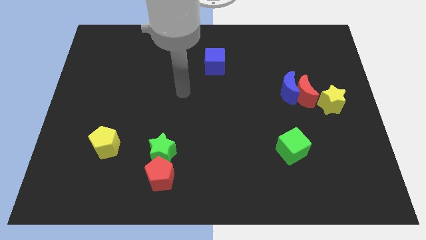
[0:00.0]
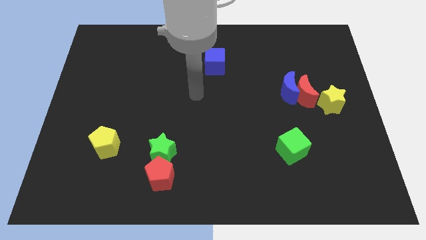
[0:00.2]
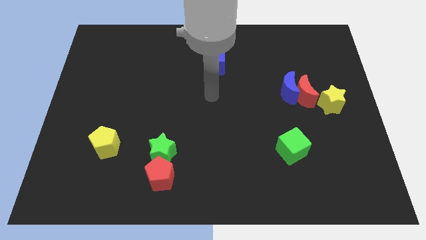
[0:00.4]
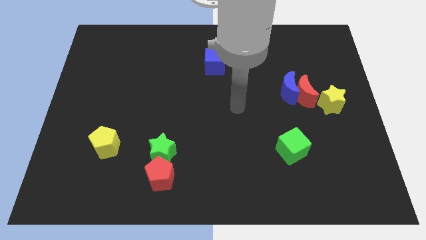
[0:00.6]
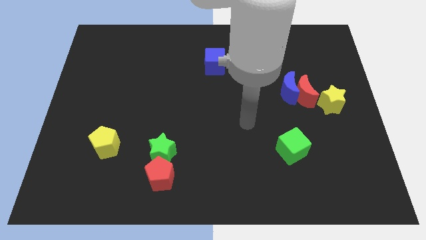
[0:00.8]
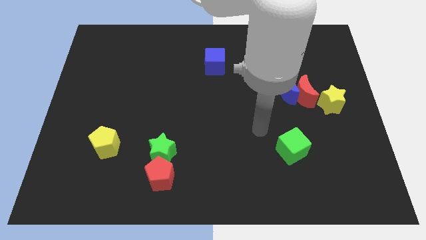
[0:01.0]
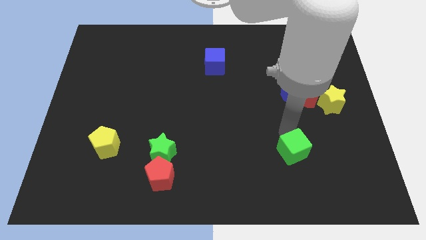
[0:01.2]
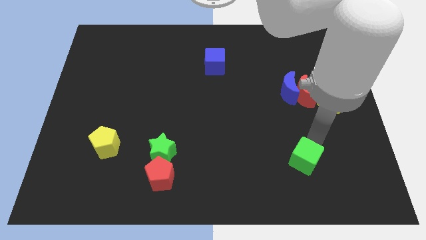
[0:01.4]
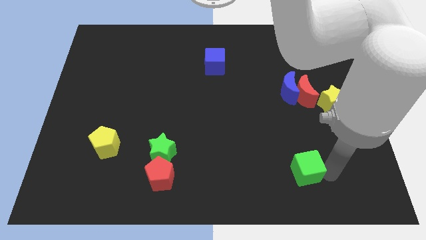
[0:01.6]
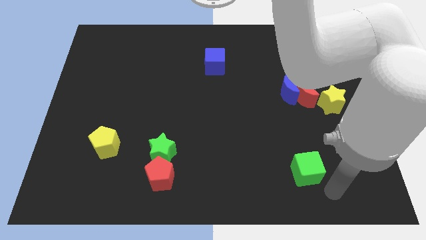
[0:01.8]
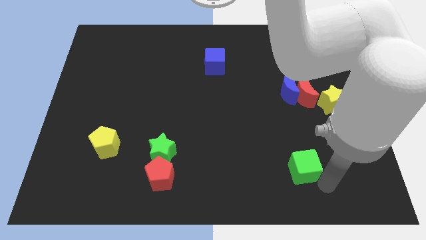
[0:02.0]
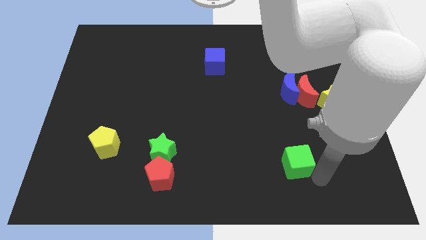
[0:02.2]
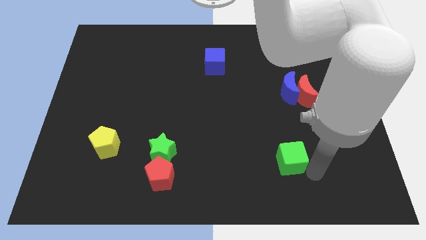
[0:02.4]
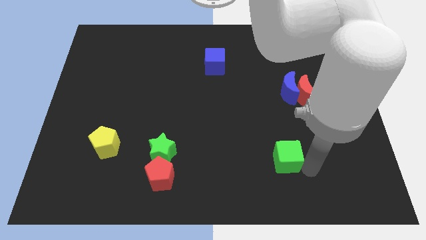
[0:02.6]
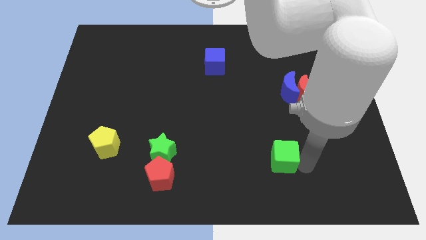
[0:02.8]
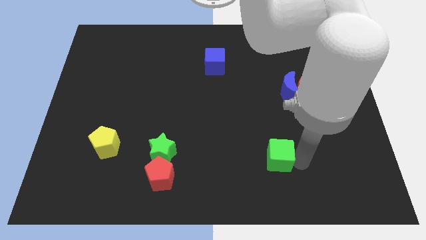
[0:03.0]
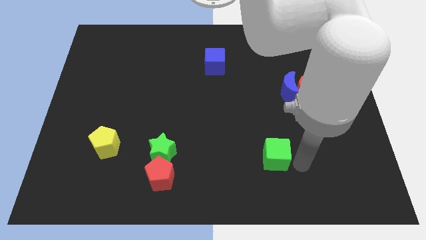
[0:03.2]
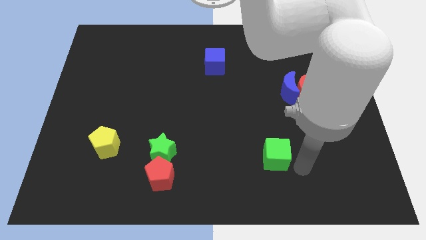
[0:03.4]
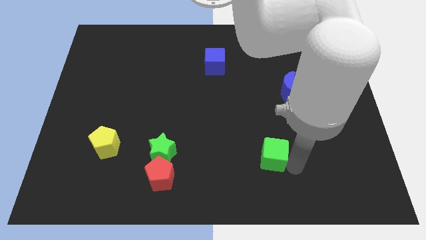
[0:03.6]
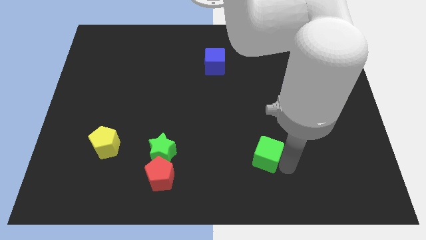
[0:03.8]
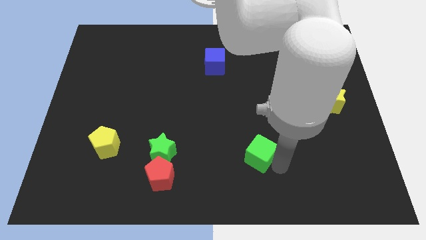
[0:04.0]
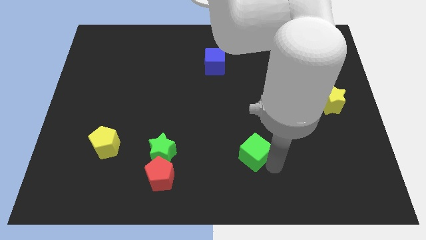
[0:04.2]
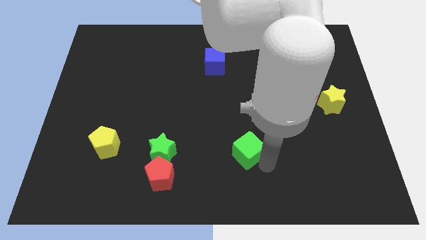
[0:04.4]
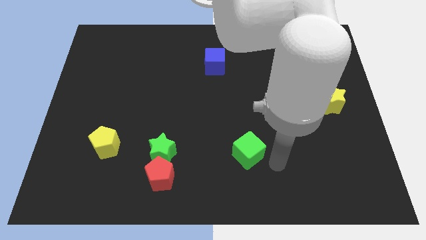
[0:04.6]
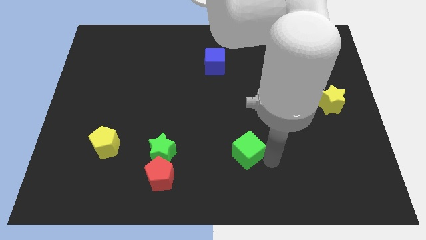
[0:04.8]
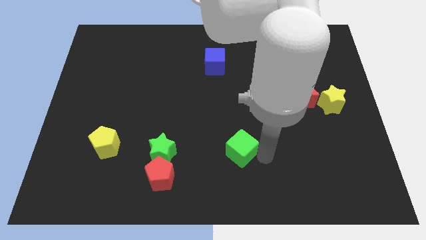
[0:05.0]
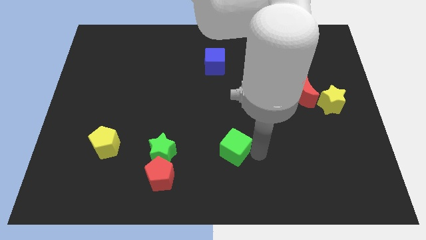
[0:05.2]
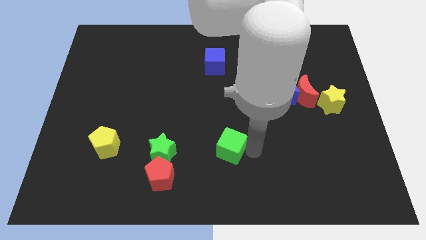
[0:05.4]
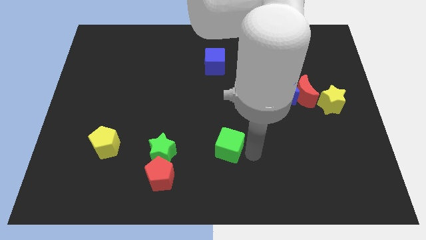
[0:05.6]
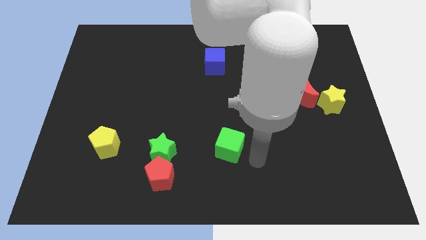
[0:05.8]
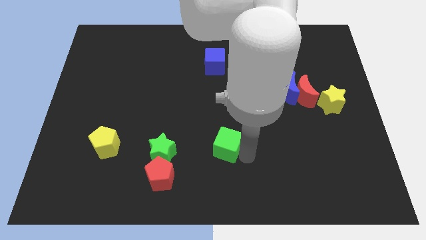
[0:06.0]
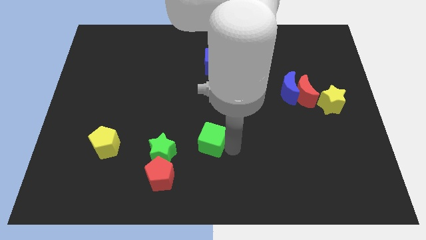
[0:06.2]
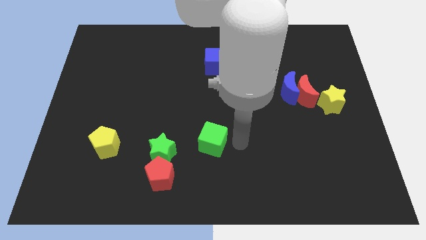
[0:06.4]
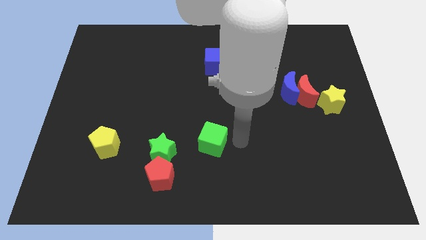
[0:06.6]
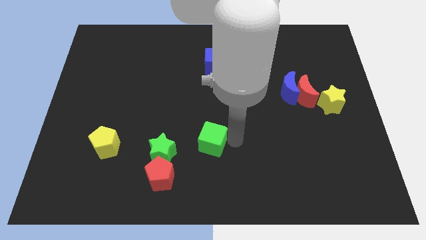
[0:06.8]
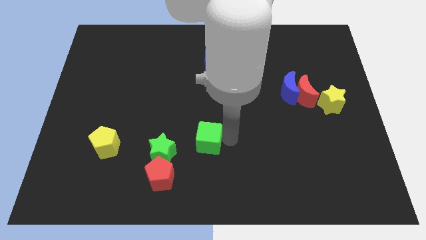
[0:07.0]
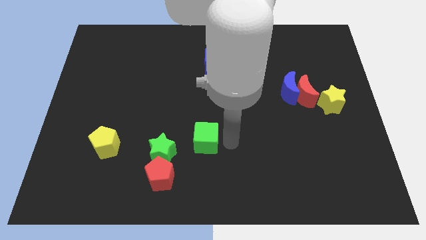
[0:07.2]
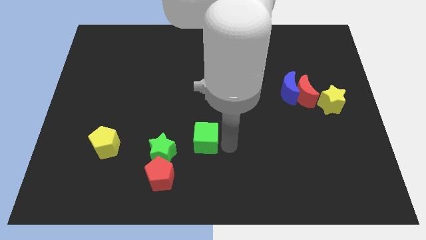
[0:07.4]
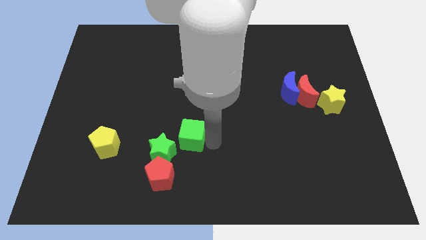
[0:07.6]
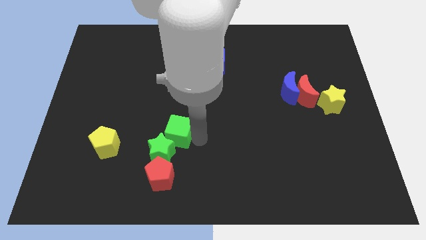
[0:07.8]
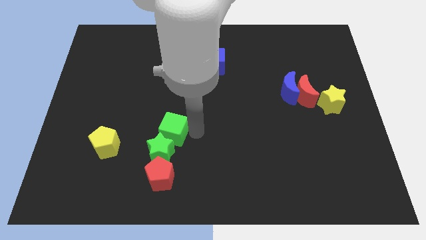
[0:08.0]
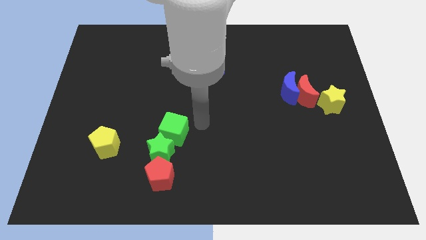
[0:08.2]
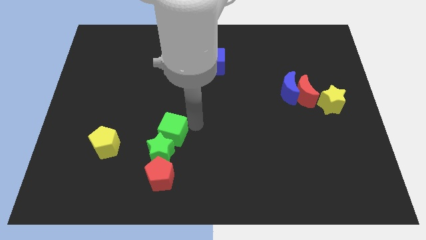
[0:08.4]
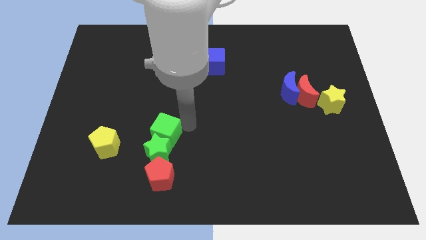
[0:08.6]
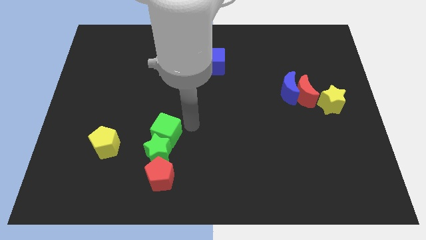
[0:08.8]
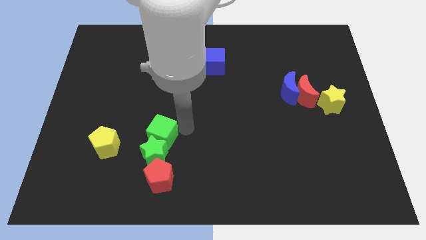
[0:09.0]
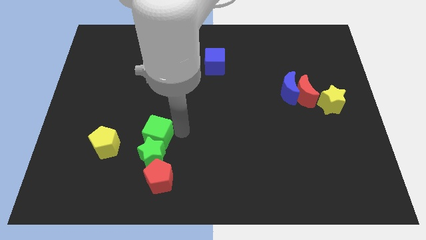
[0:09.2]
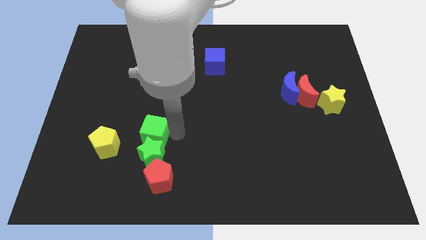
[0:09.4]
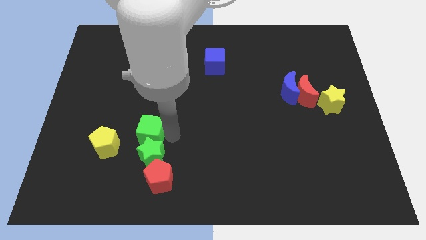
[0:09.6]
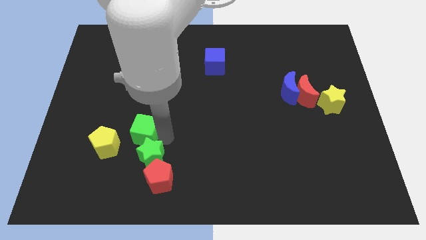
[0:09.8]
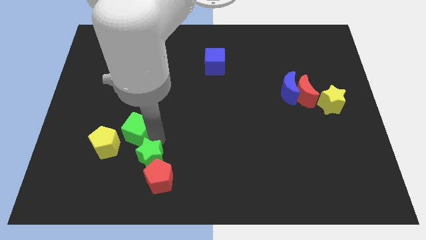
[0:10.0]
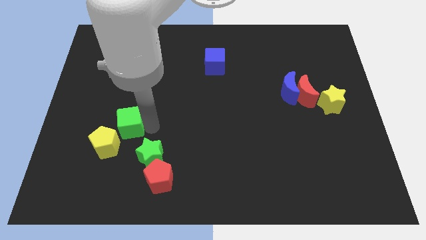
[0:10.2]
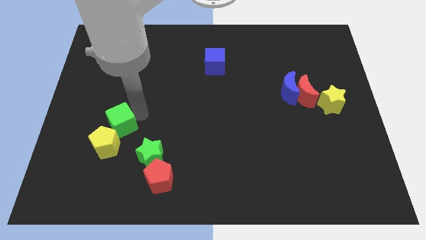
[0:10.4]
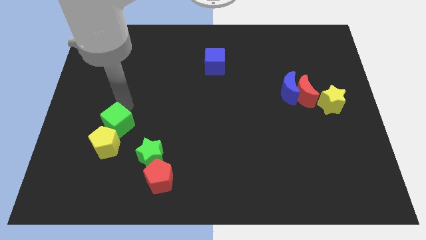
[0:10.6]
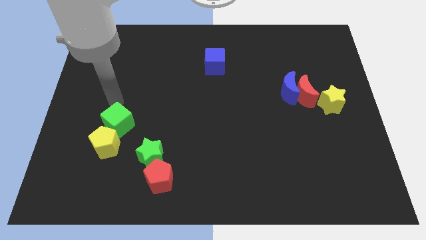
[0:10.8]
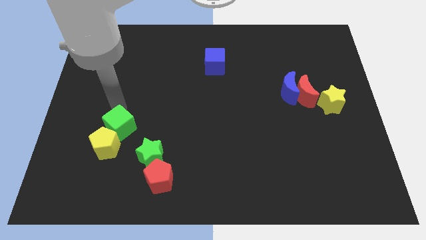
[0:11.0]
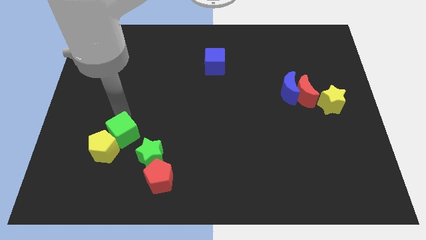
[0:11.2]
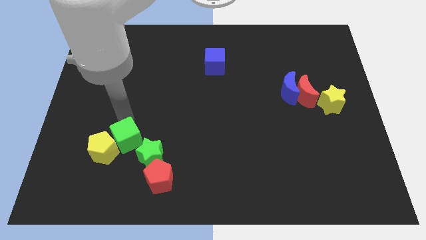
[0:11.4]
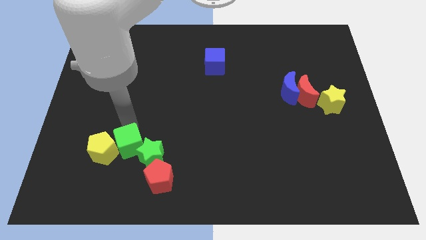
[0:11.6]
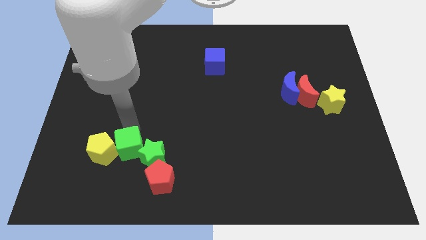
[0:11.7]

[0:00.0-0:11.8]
push the green cube to the bottom right of the yellow pentagon
